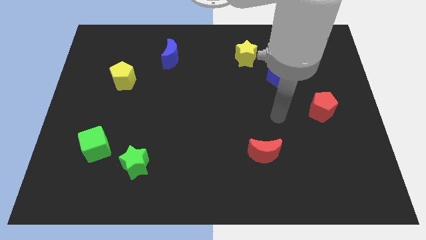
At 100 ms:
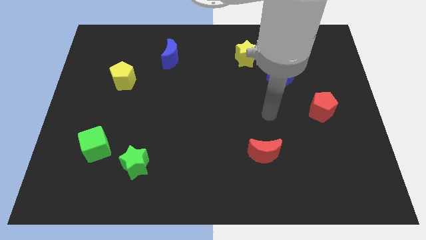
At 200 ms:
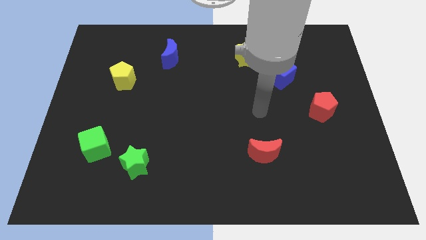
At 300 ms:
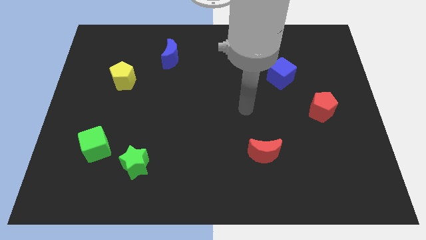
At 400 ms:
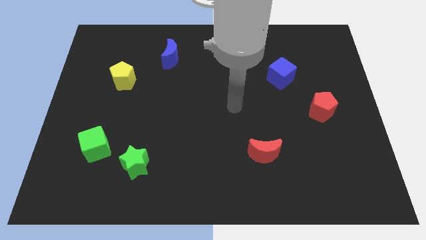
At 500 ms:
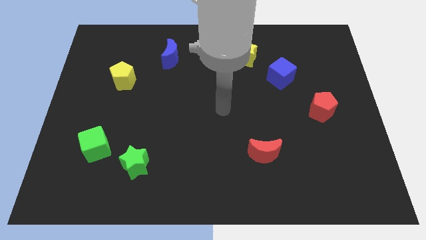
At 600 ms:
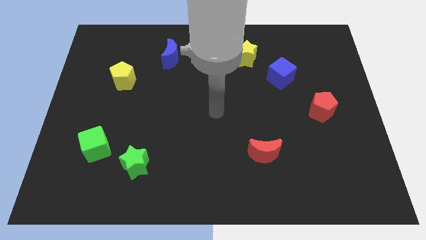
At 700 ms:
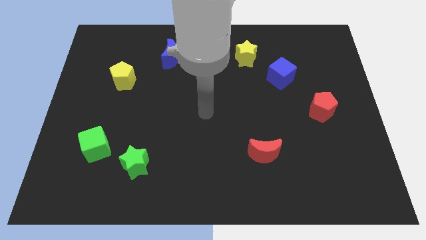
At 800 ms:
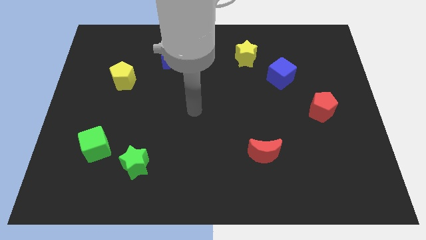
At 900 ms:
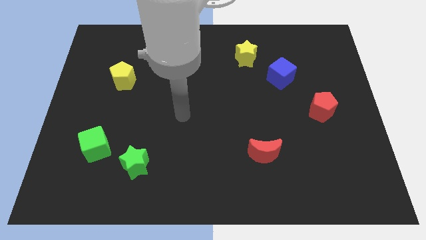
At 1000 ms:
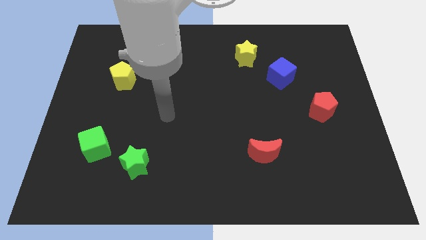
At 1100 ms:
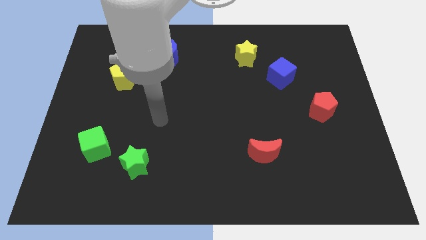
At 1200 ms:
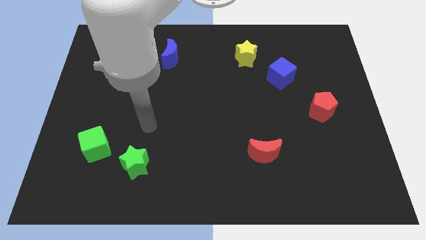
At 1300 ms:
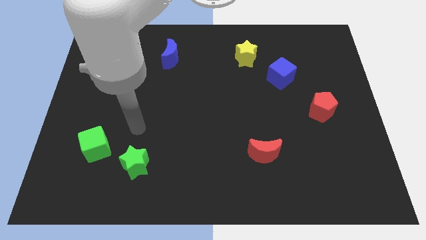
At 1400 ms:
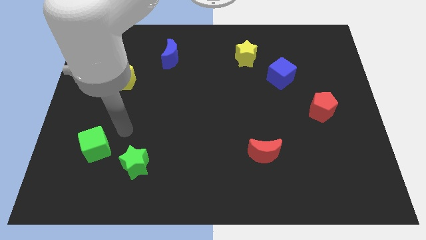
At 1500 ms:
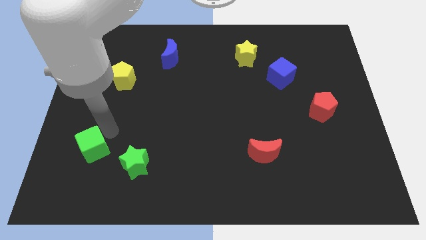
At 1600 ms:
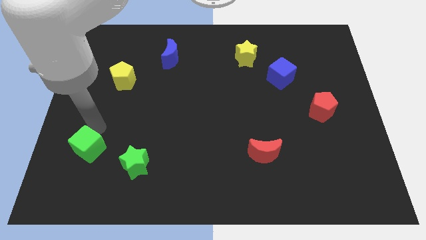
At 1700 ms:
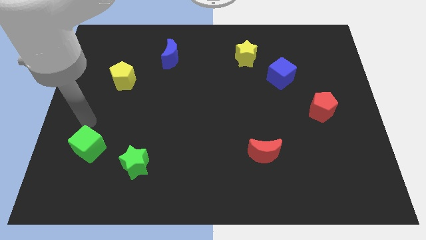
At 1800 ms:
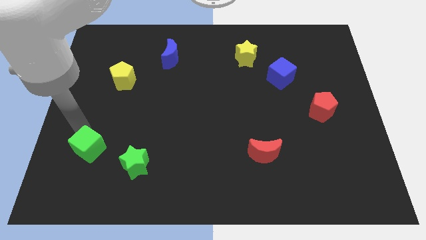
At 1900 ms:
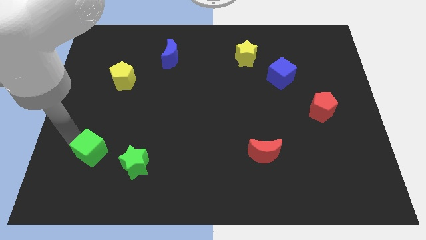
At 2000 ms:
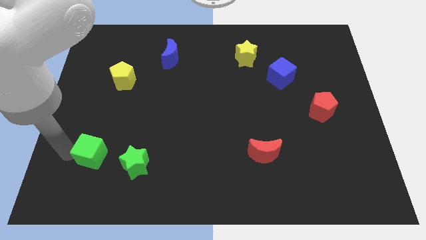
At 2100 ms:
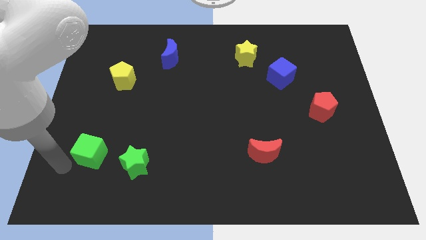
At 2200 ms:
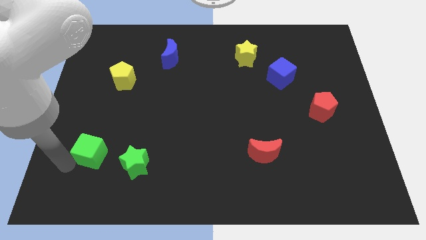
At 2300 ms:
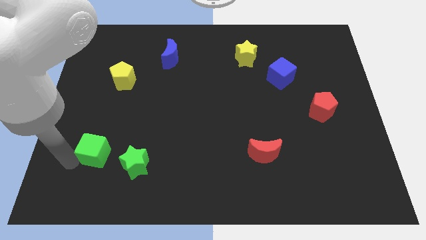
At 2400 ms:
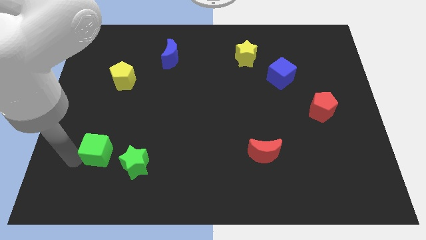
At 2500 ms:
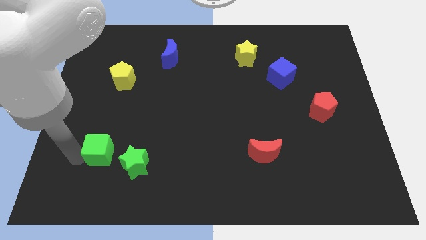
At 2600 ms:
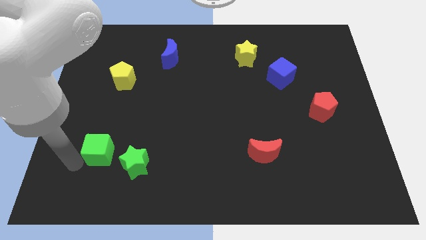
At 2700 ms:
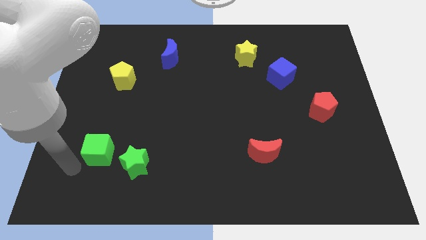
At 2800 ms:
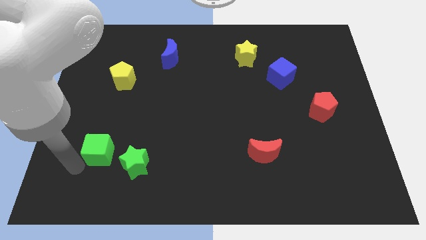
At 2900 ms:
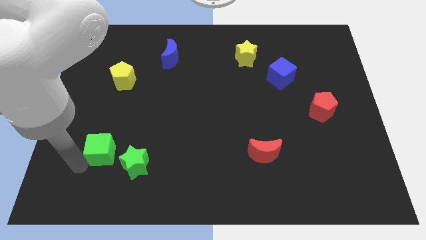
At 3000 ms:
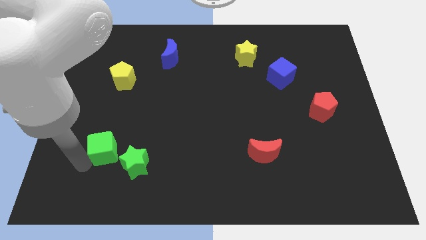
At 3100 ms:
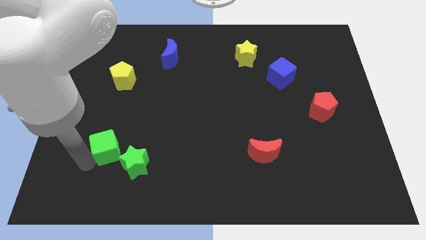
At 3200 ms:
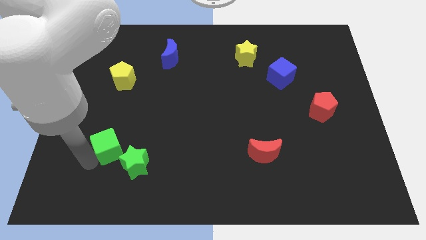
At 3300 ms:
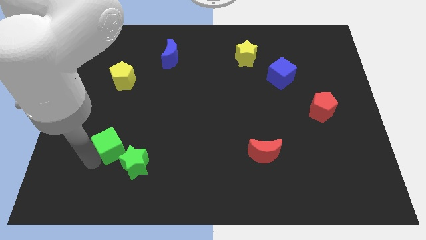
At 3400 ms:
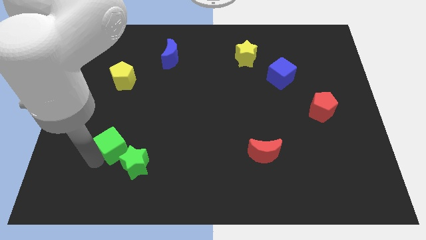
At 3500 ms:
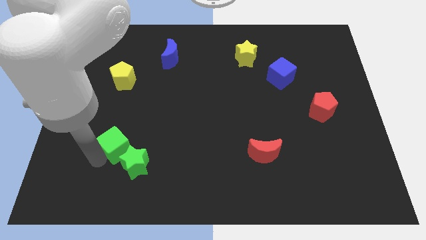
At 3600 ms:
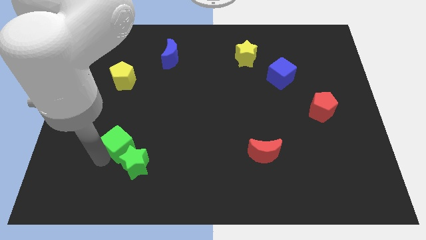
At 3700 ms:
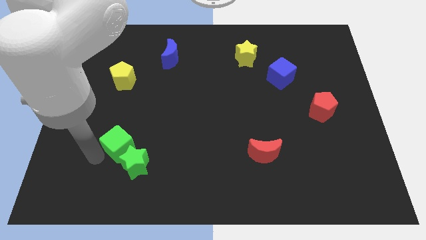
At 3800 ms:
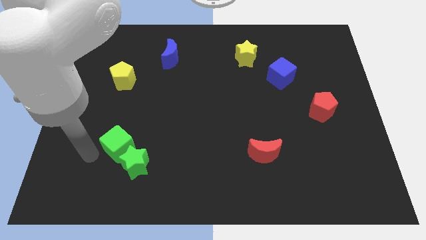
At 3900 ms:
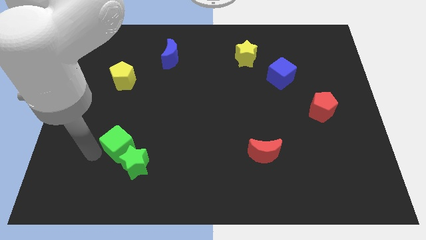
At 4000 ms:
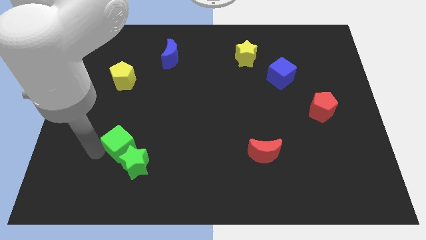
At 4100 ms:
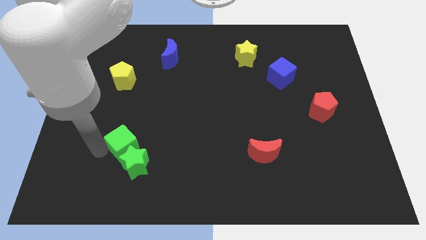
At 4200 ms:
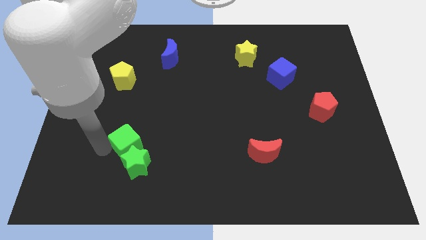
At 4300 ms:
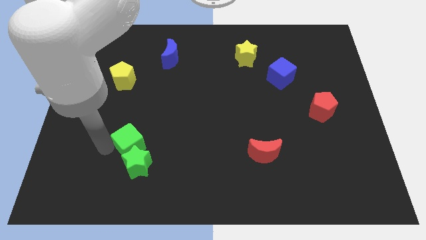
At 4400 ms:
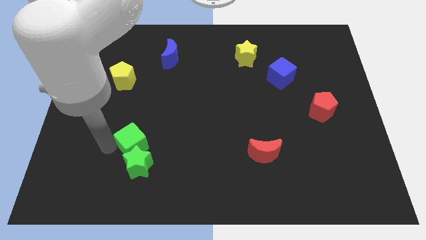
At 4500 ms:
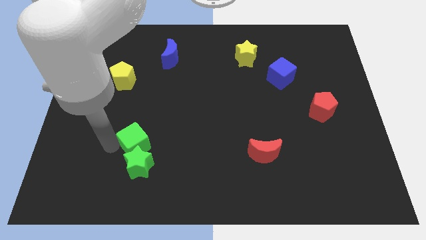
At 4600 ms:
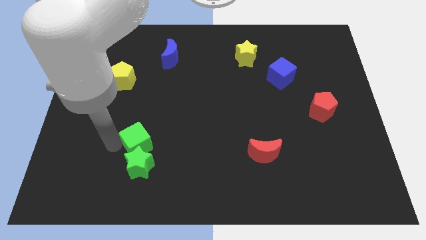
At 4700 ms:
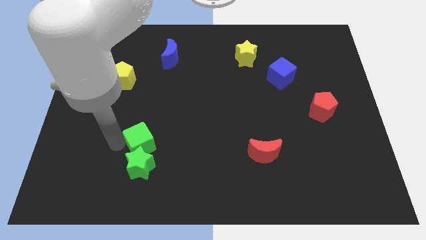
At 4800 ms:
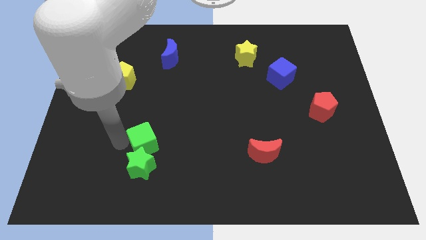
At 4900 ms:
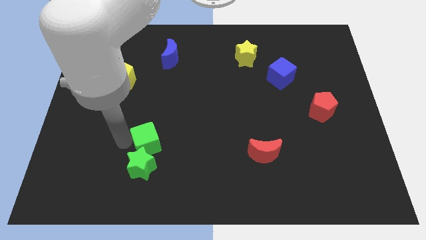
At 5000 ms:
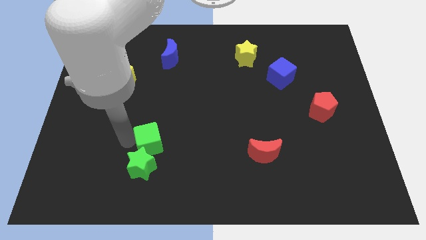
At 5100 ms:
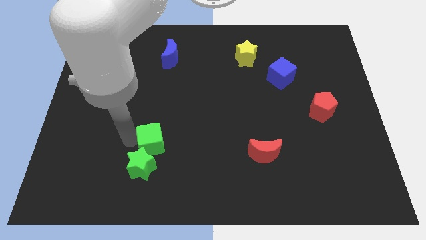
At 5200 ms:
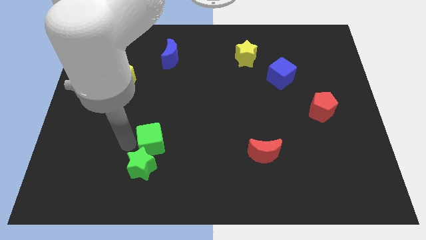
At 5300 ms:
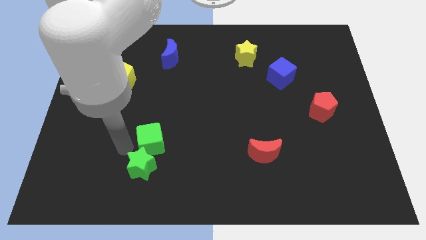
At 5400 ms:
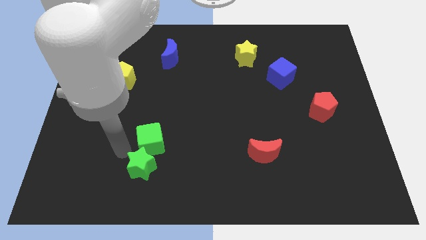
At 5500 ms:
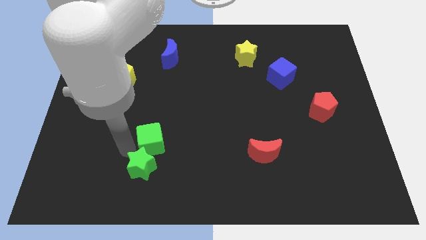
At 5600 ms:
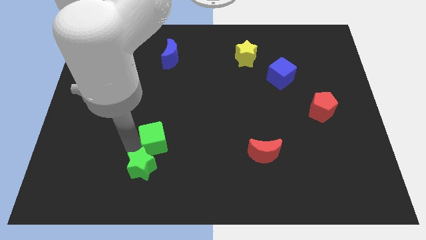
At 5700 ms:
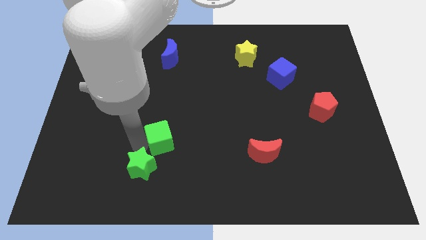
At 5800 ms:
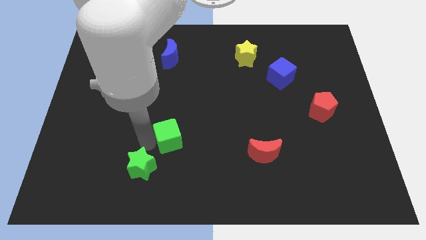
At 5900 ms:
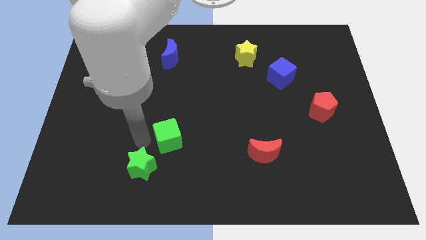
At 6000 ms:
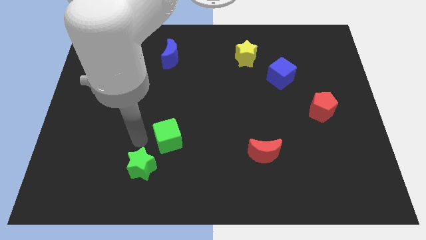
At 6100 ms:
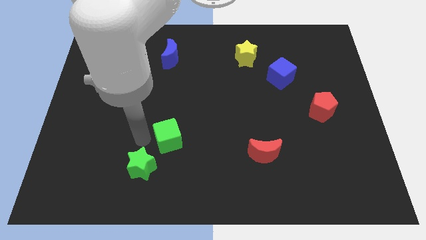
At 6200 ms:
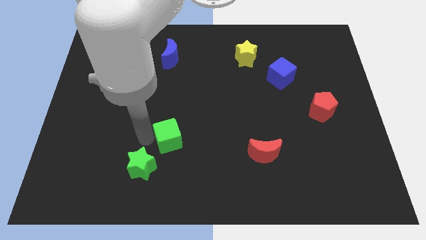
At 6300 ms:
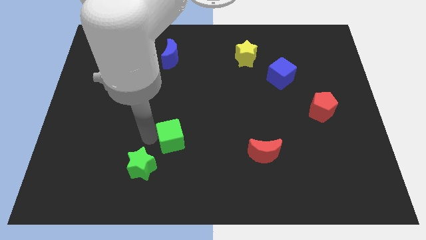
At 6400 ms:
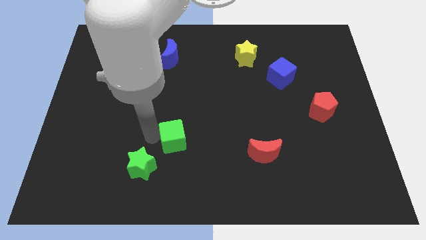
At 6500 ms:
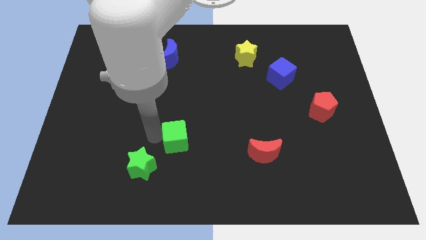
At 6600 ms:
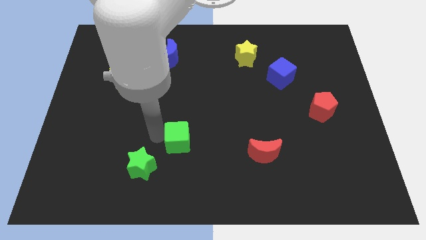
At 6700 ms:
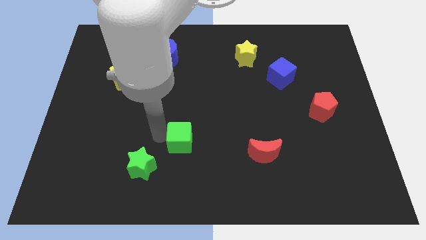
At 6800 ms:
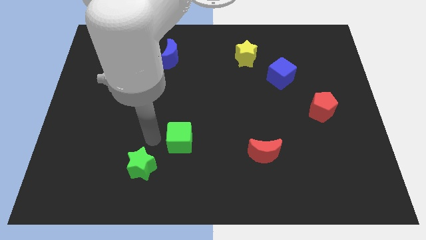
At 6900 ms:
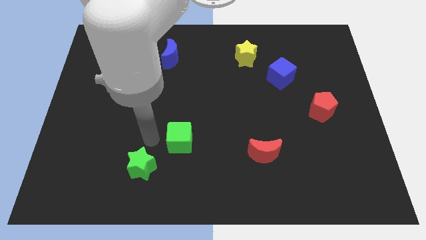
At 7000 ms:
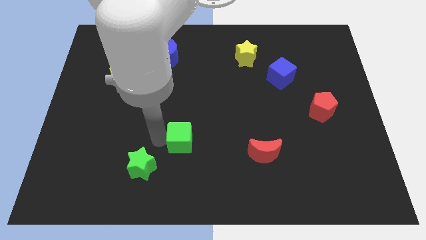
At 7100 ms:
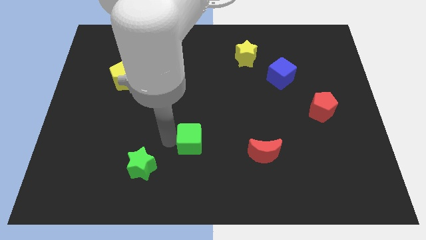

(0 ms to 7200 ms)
move the green cube to the right

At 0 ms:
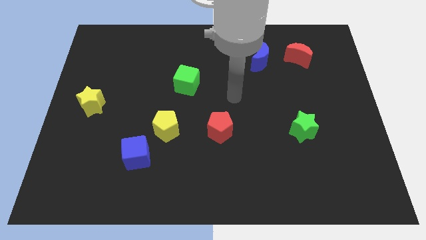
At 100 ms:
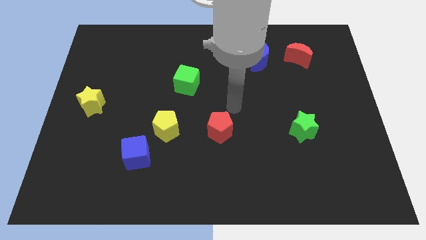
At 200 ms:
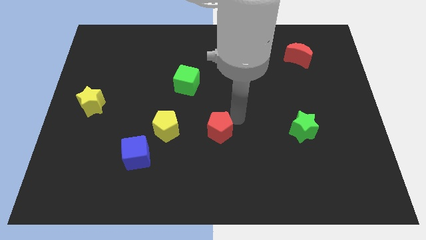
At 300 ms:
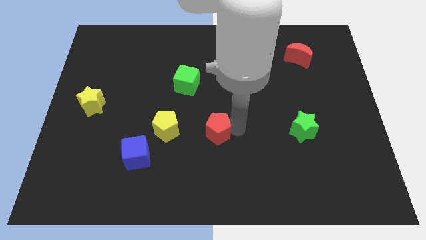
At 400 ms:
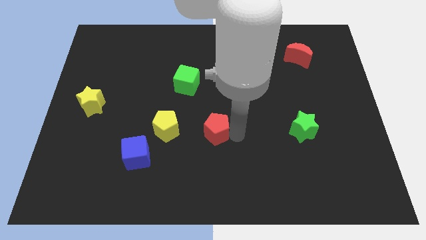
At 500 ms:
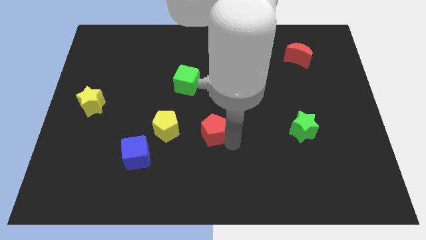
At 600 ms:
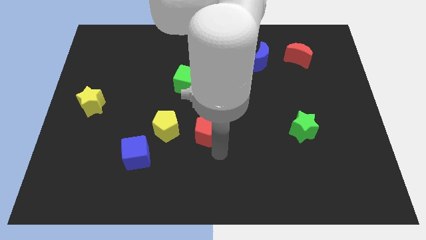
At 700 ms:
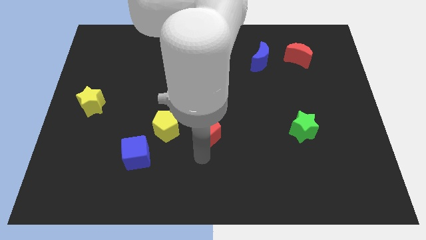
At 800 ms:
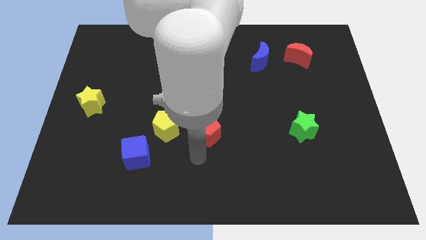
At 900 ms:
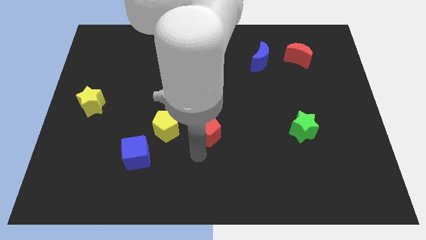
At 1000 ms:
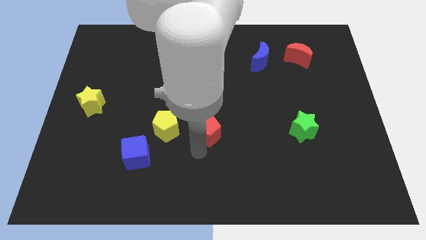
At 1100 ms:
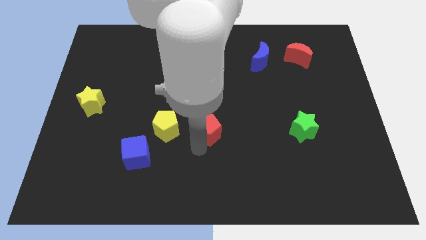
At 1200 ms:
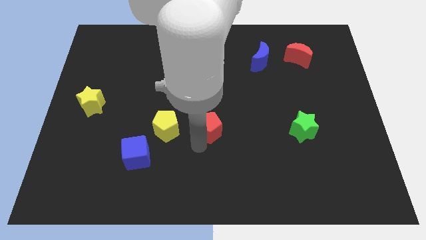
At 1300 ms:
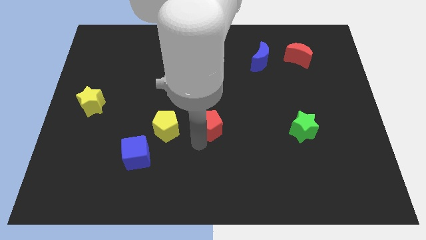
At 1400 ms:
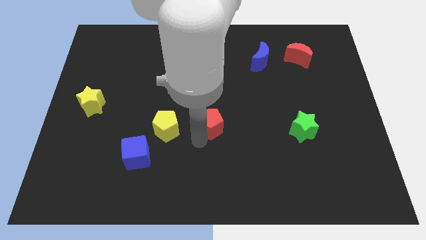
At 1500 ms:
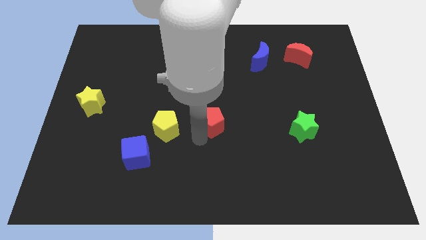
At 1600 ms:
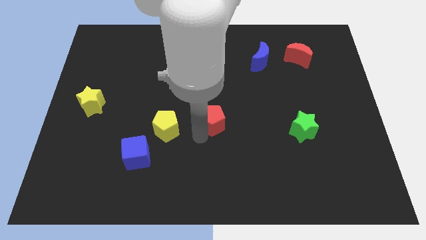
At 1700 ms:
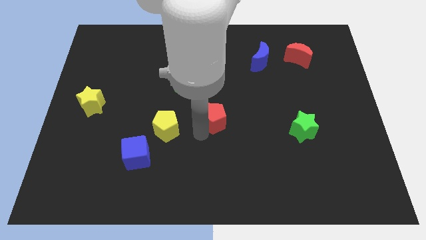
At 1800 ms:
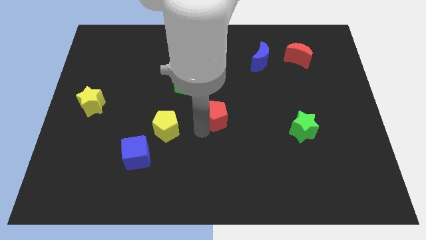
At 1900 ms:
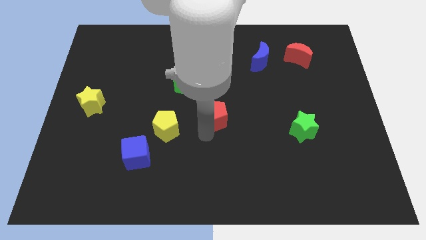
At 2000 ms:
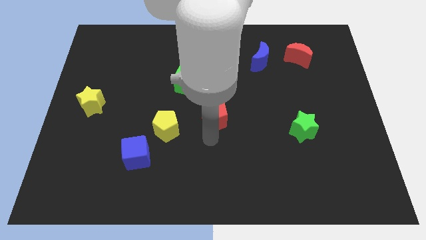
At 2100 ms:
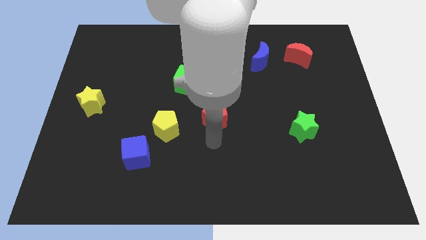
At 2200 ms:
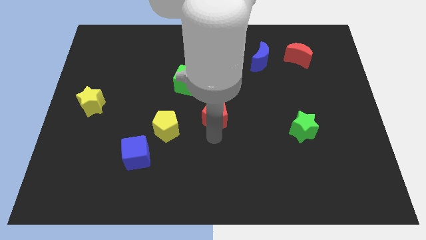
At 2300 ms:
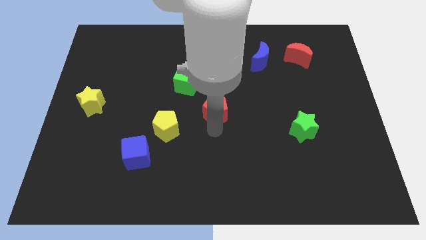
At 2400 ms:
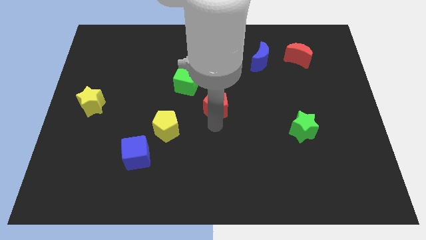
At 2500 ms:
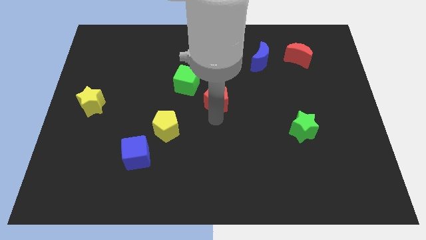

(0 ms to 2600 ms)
slightly slide the red pentagon upwards
